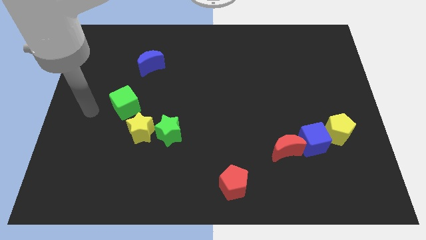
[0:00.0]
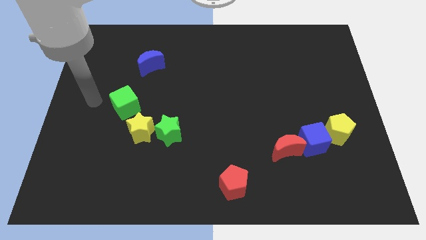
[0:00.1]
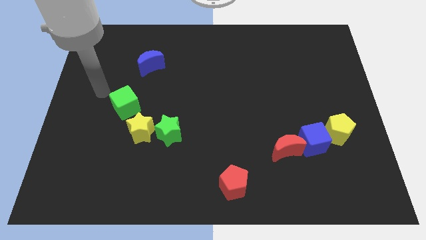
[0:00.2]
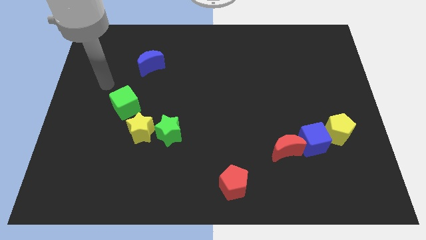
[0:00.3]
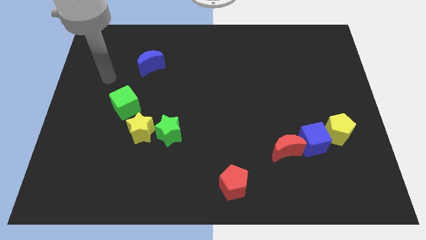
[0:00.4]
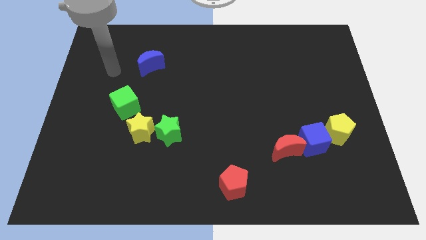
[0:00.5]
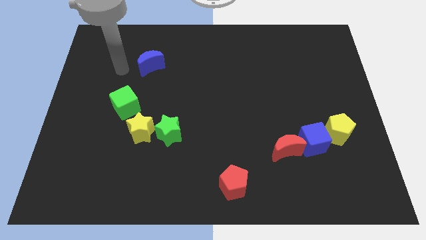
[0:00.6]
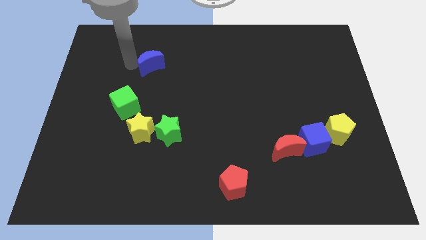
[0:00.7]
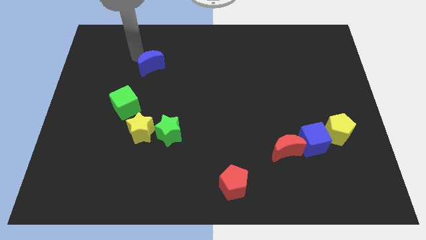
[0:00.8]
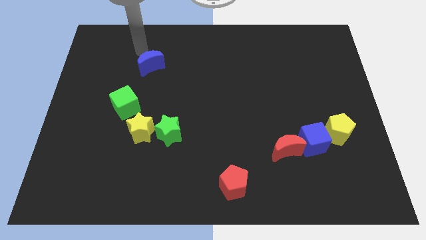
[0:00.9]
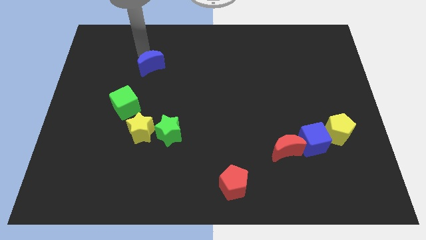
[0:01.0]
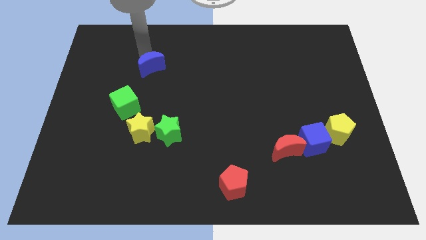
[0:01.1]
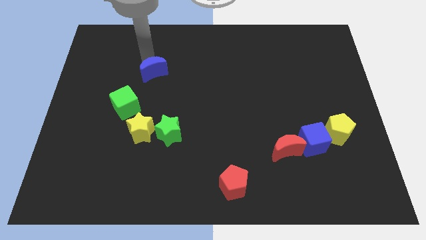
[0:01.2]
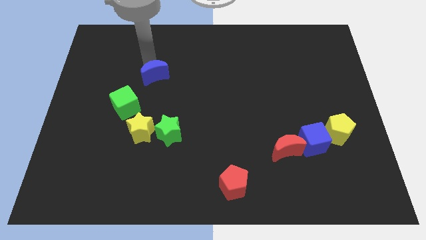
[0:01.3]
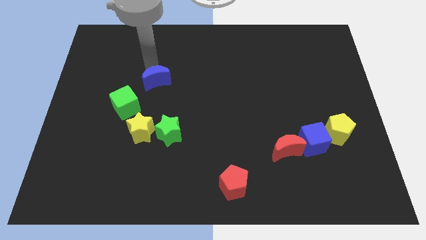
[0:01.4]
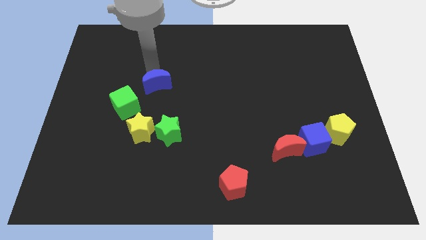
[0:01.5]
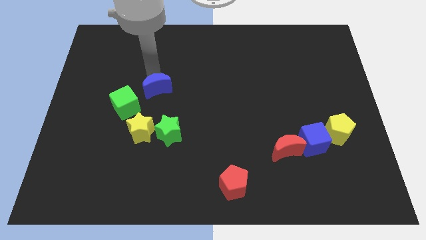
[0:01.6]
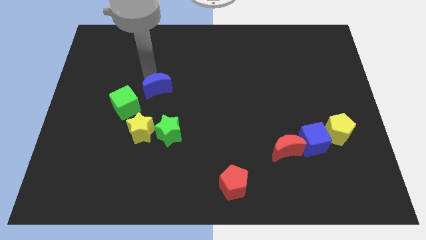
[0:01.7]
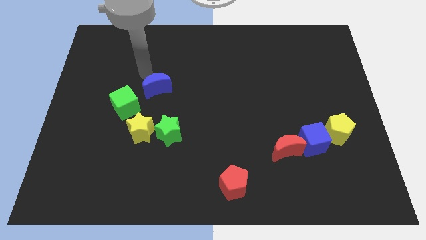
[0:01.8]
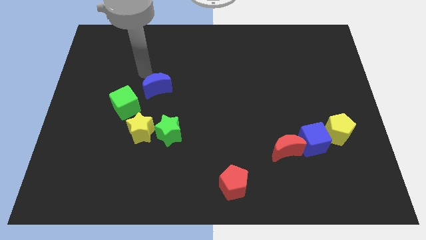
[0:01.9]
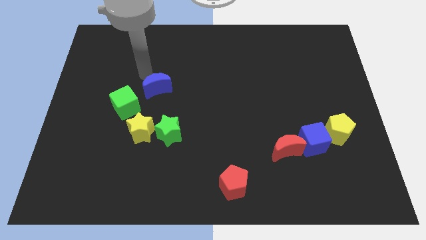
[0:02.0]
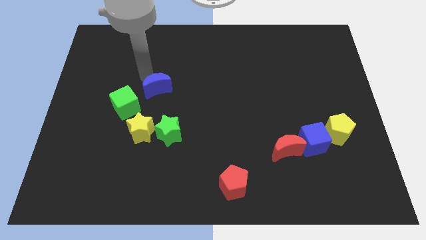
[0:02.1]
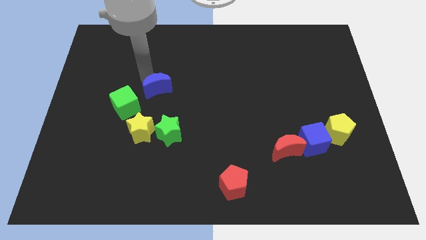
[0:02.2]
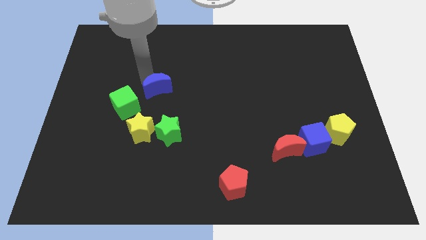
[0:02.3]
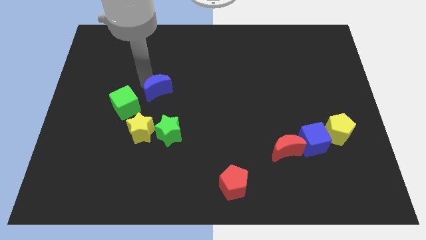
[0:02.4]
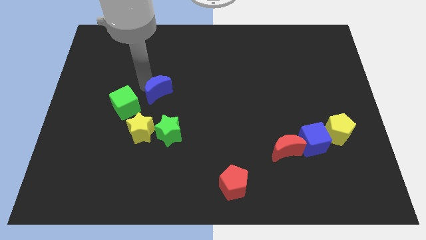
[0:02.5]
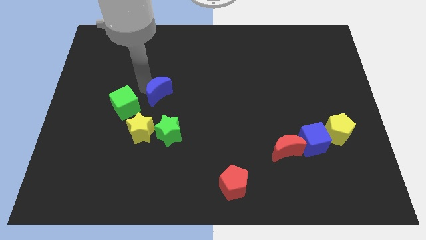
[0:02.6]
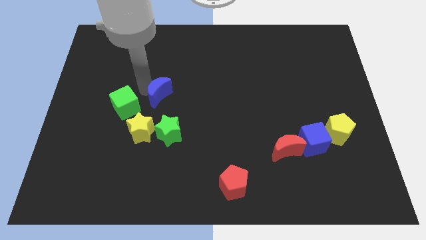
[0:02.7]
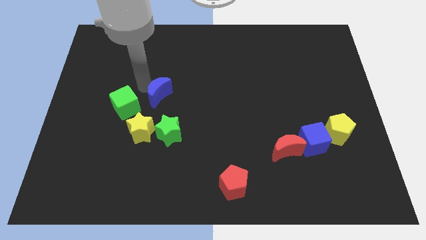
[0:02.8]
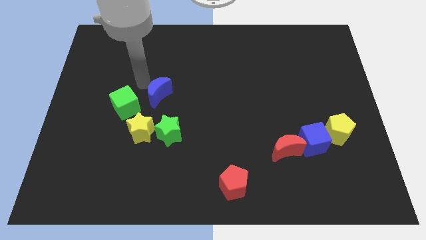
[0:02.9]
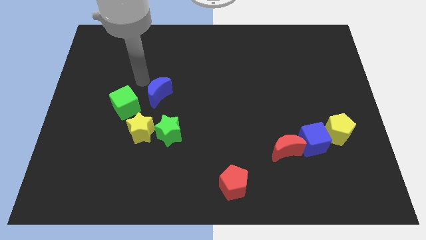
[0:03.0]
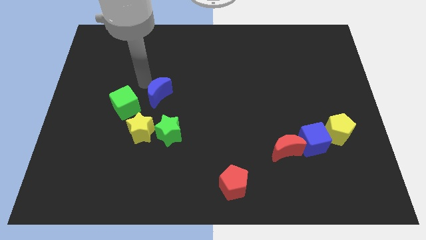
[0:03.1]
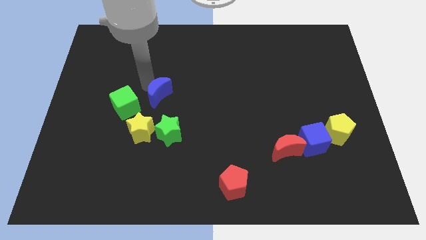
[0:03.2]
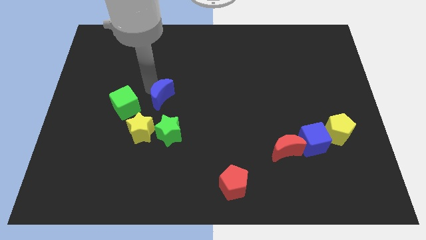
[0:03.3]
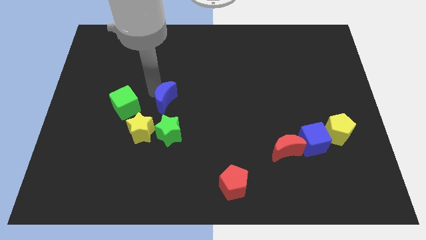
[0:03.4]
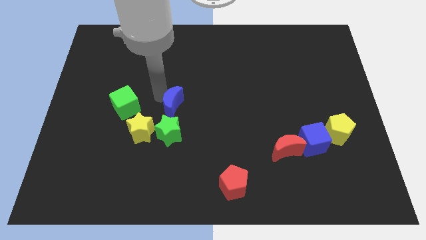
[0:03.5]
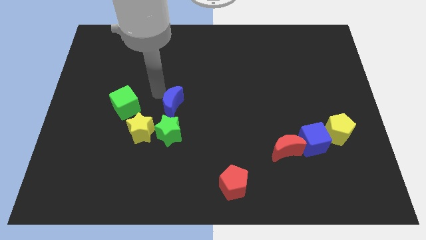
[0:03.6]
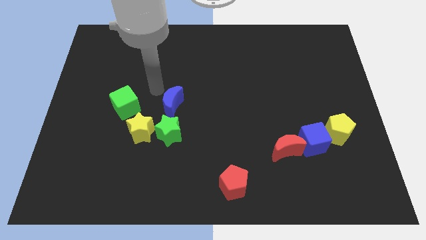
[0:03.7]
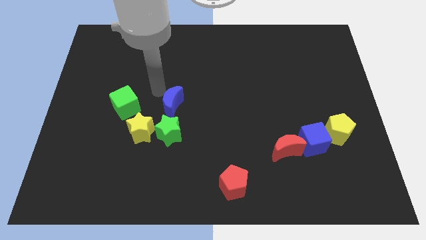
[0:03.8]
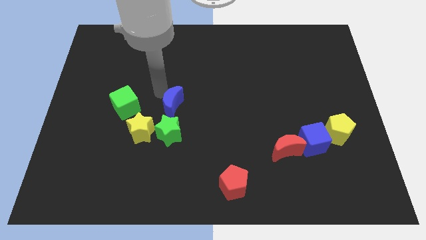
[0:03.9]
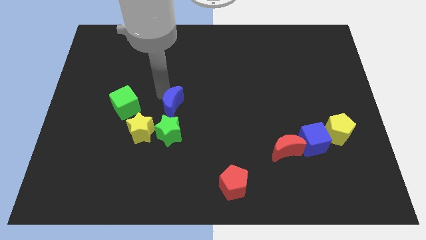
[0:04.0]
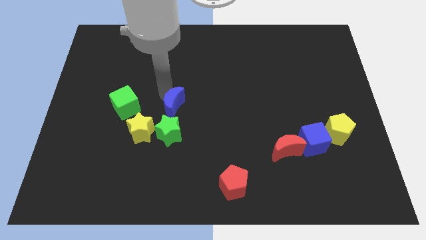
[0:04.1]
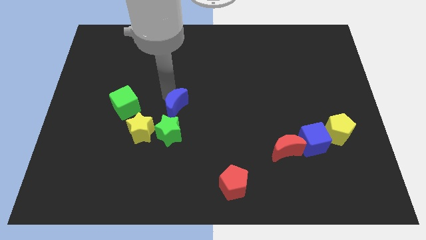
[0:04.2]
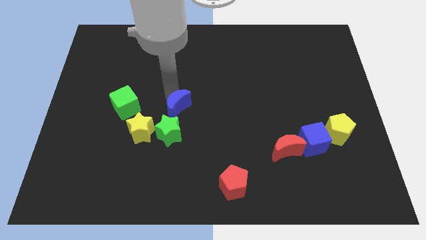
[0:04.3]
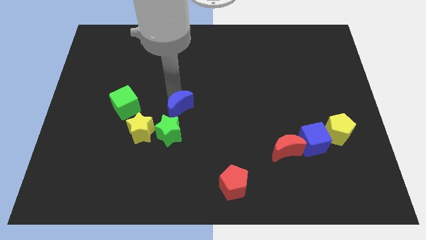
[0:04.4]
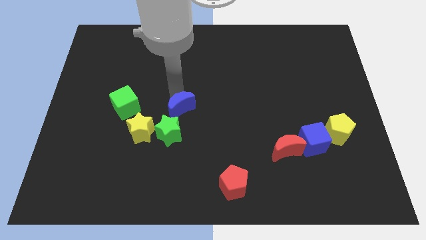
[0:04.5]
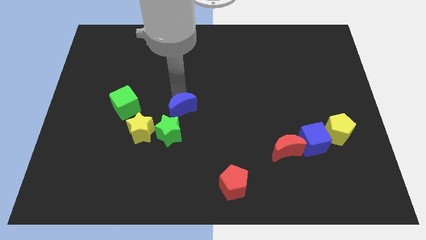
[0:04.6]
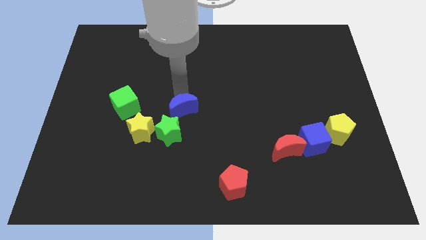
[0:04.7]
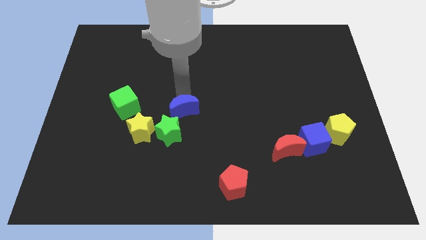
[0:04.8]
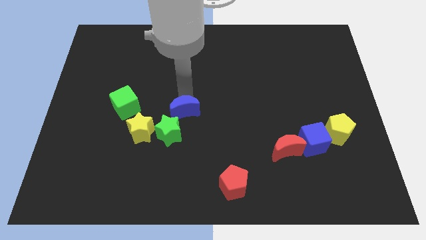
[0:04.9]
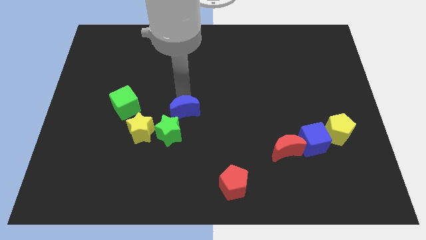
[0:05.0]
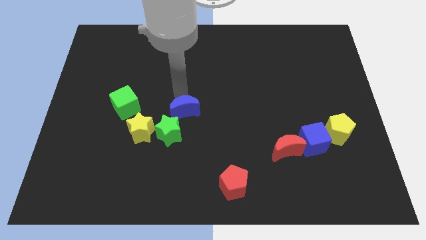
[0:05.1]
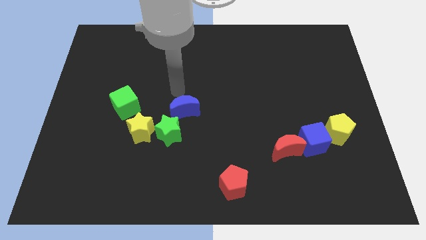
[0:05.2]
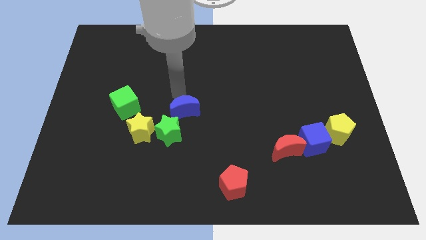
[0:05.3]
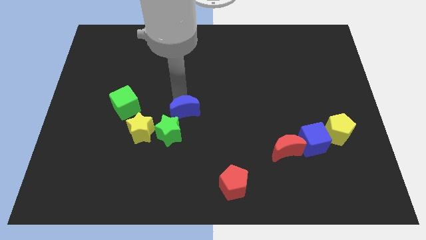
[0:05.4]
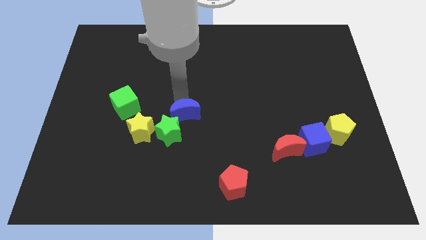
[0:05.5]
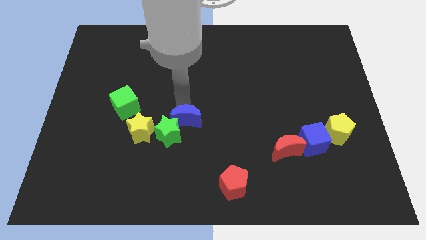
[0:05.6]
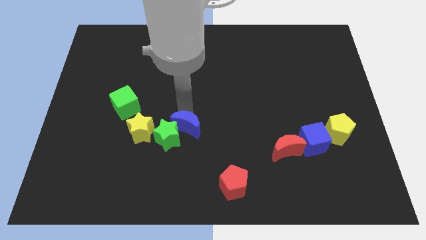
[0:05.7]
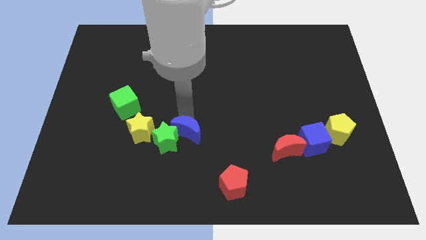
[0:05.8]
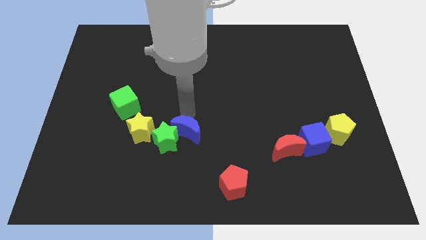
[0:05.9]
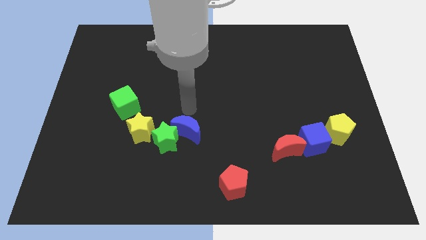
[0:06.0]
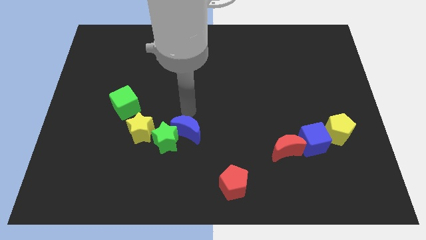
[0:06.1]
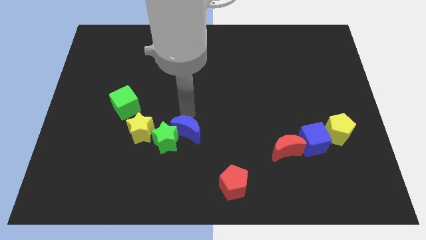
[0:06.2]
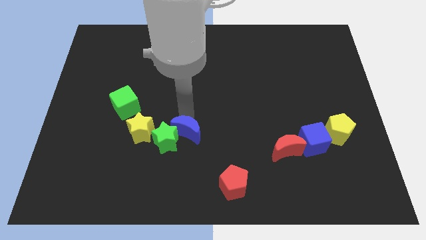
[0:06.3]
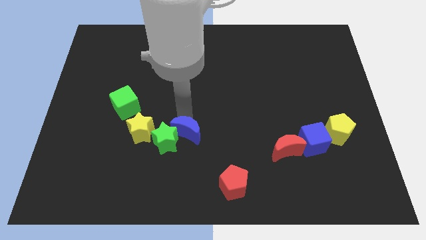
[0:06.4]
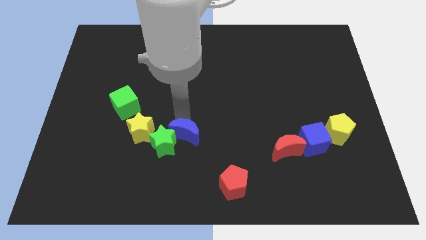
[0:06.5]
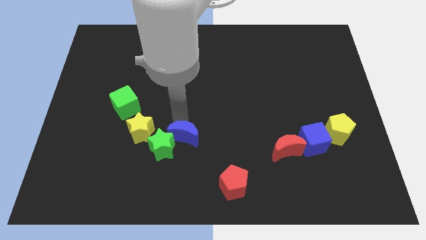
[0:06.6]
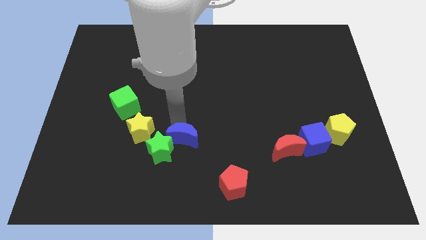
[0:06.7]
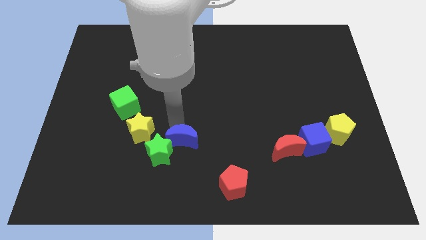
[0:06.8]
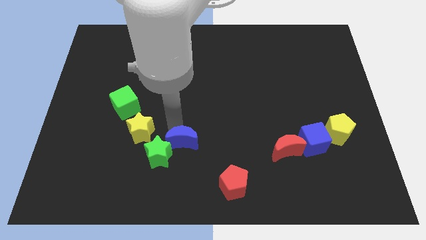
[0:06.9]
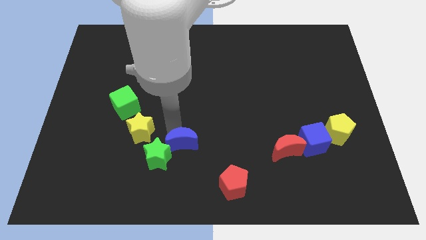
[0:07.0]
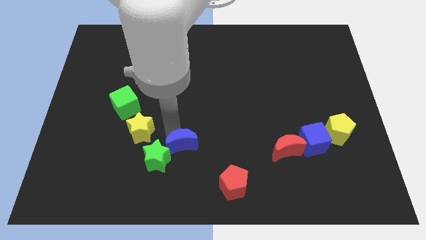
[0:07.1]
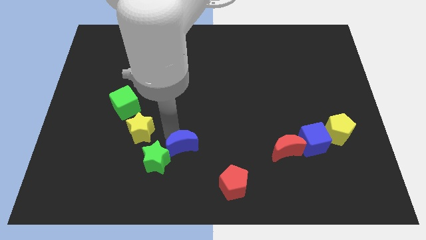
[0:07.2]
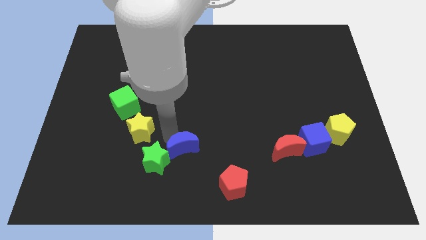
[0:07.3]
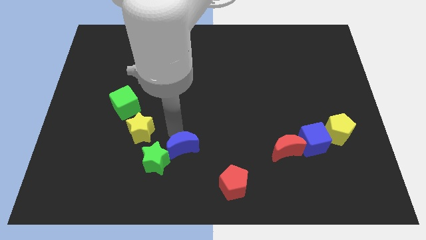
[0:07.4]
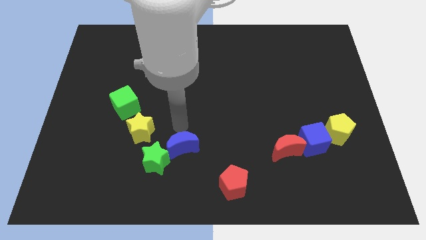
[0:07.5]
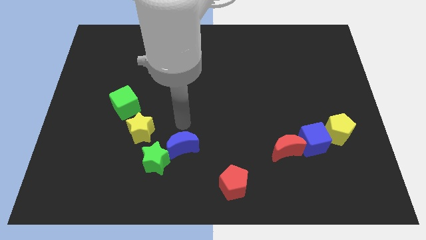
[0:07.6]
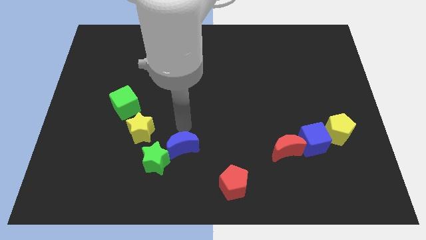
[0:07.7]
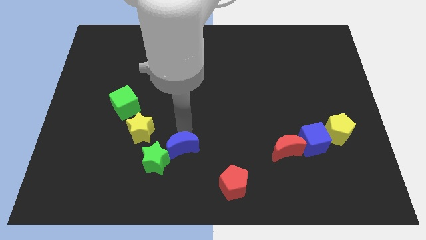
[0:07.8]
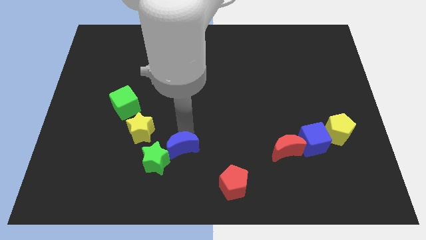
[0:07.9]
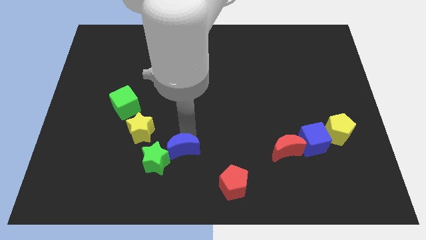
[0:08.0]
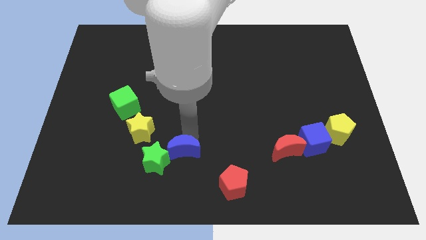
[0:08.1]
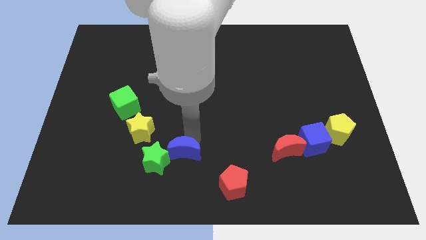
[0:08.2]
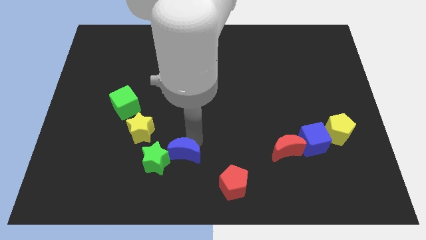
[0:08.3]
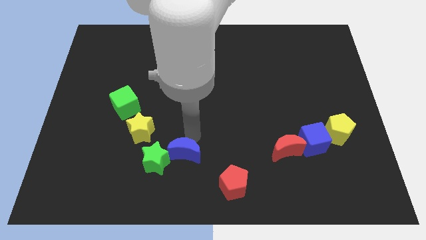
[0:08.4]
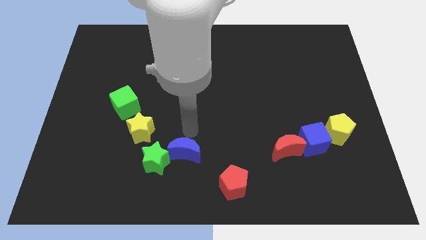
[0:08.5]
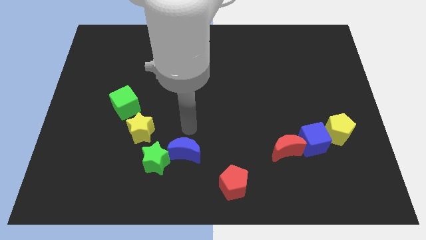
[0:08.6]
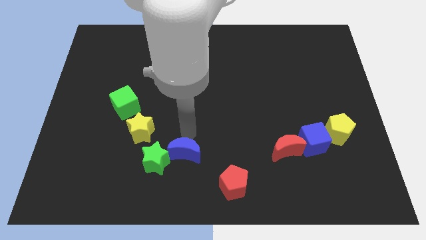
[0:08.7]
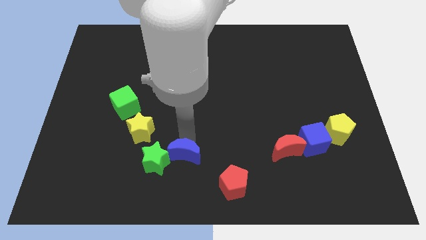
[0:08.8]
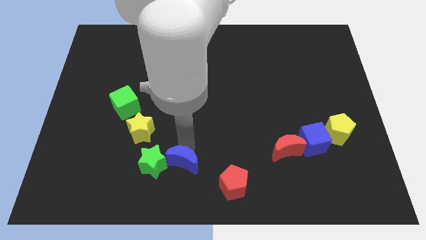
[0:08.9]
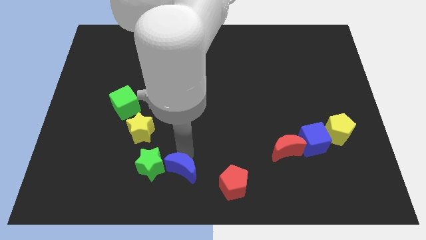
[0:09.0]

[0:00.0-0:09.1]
slide the blue moon just left of the red pentagon
